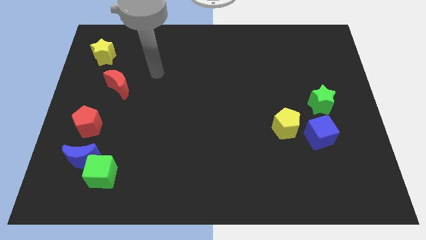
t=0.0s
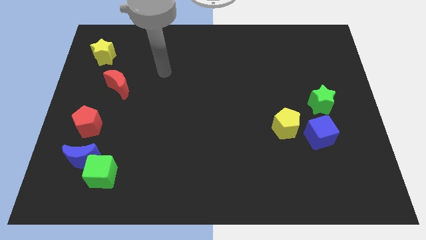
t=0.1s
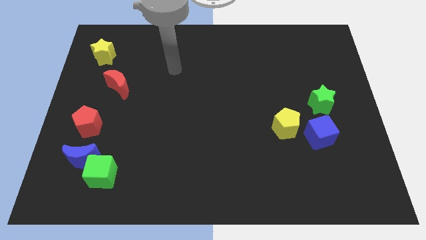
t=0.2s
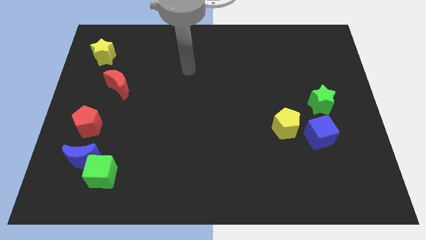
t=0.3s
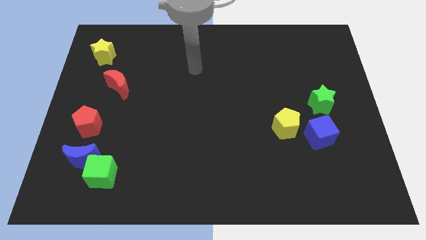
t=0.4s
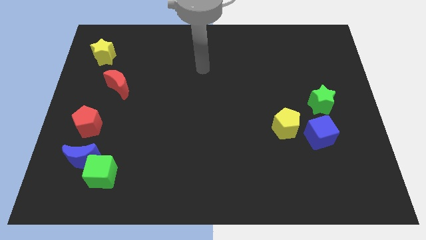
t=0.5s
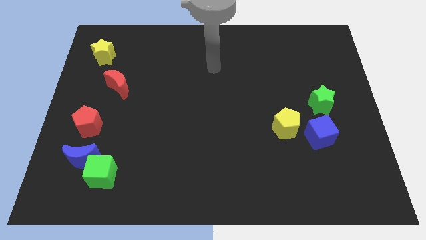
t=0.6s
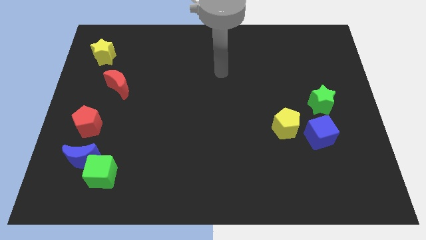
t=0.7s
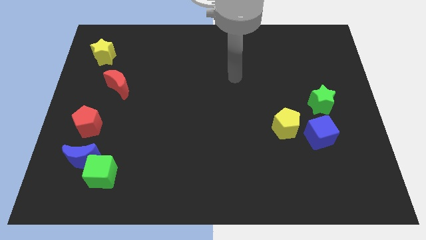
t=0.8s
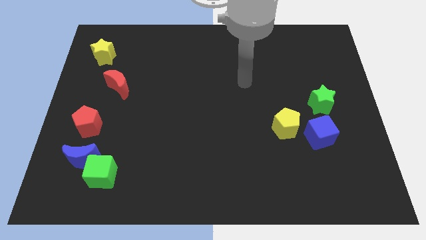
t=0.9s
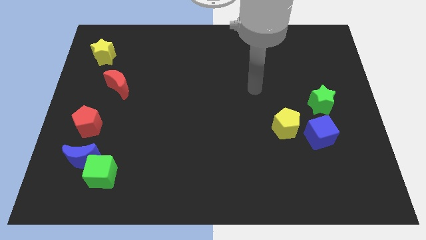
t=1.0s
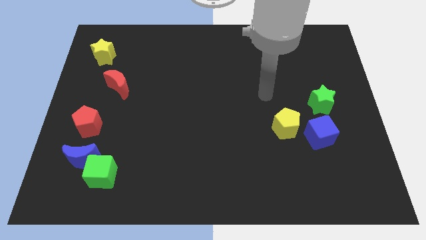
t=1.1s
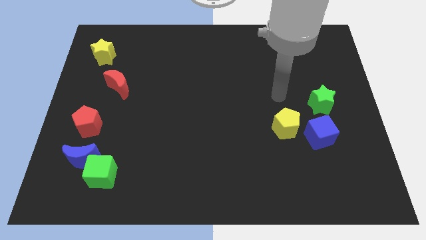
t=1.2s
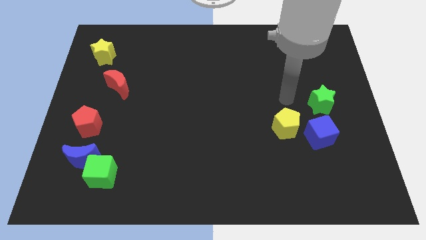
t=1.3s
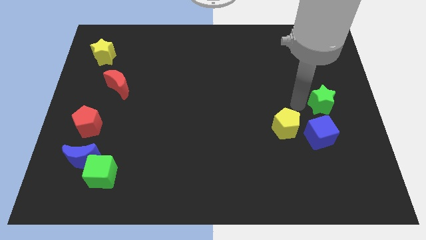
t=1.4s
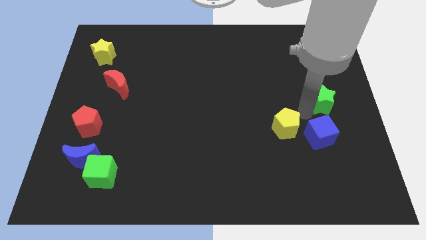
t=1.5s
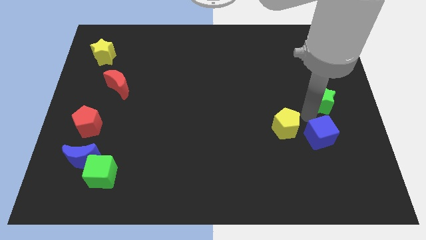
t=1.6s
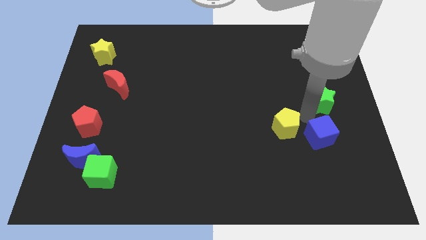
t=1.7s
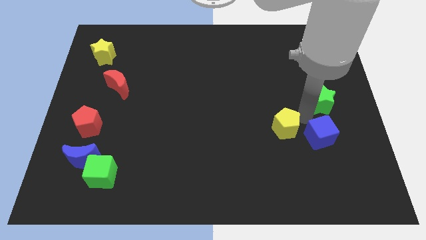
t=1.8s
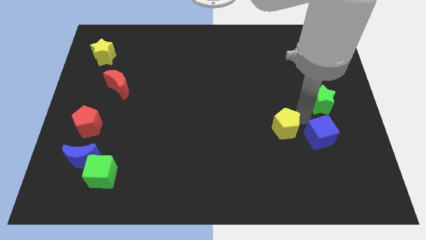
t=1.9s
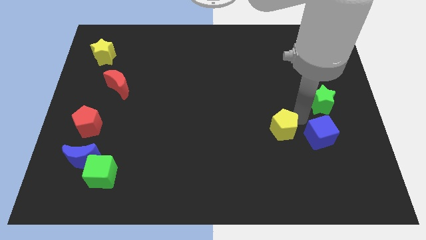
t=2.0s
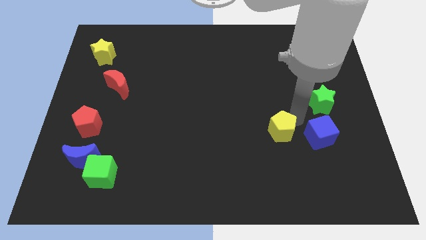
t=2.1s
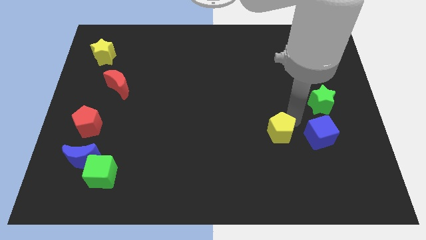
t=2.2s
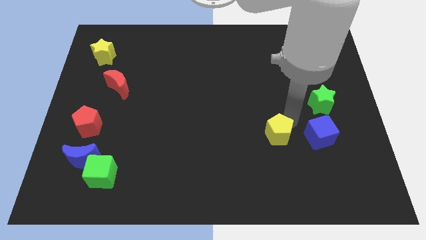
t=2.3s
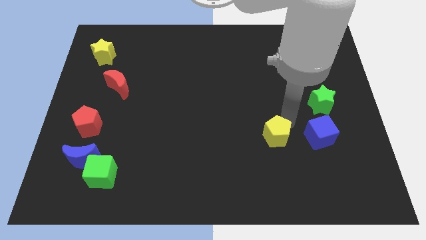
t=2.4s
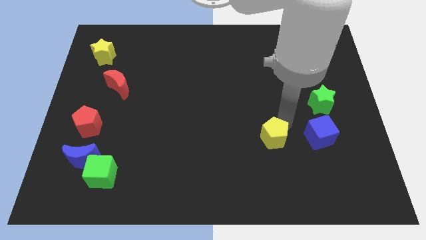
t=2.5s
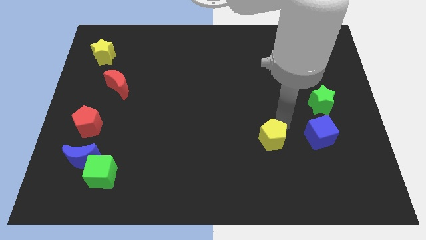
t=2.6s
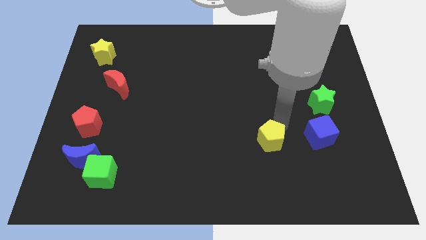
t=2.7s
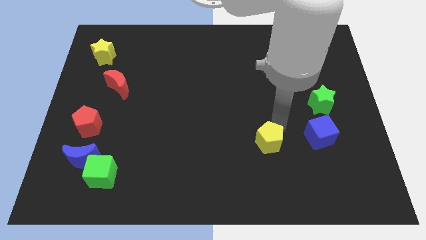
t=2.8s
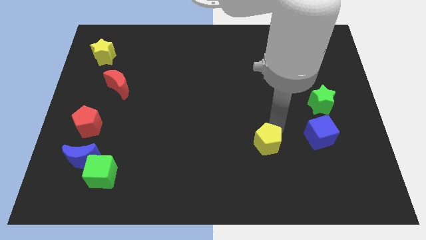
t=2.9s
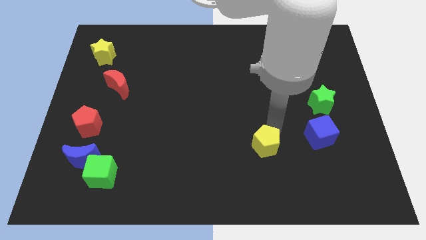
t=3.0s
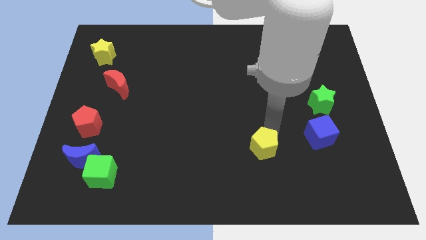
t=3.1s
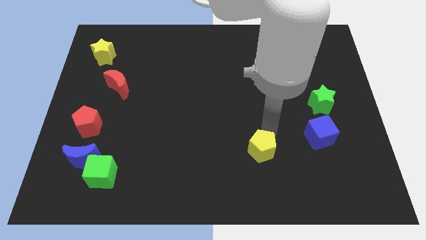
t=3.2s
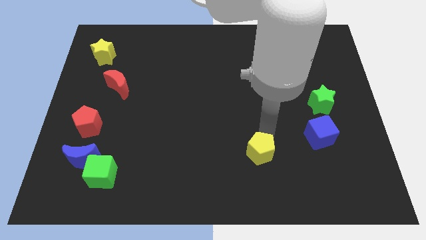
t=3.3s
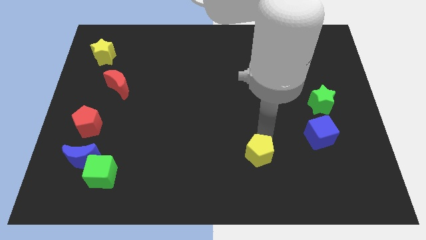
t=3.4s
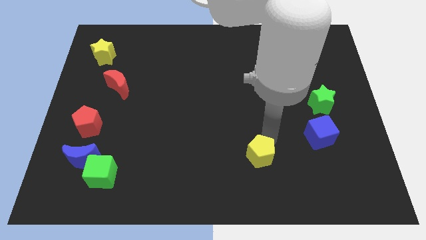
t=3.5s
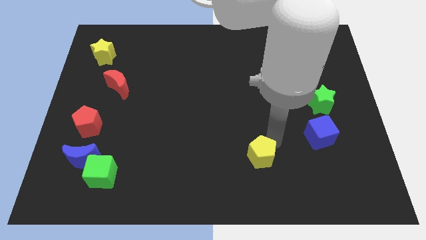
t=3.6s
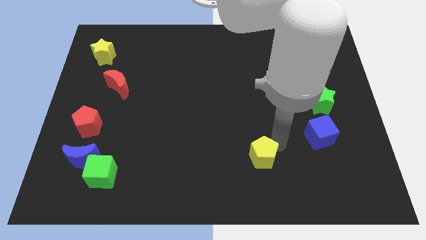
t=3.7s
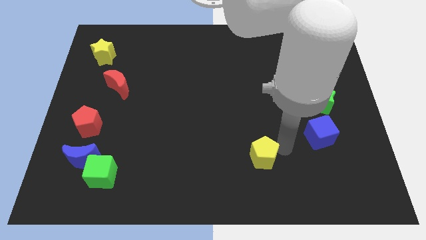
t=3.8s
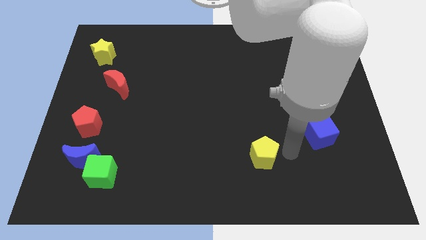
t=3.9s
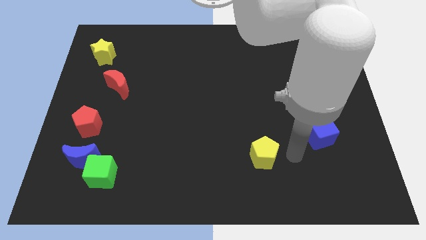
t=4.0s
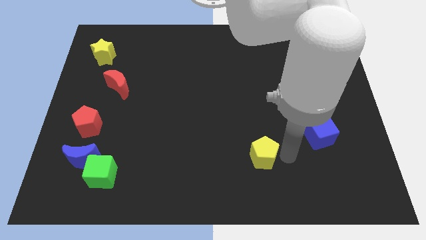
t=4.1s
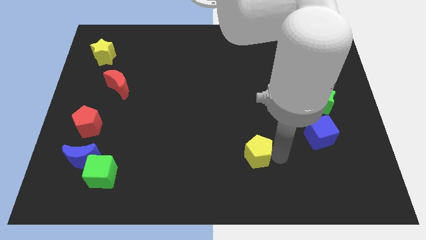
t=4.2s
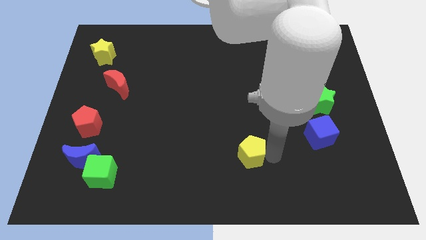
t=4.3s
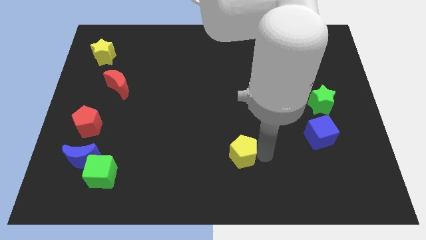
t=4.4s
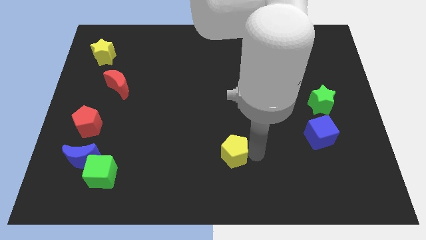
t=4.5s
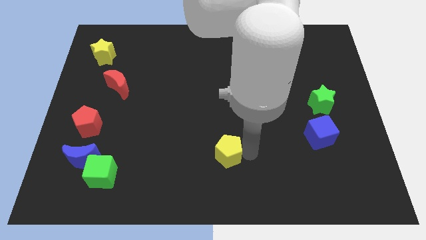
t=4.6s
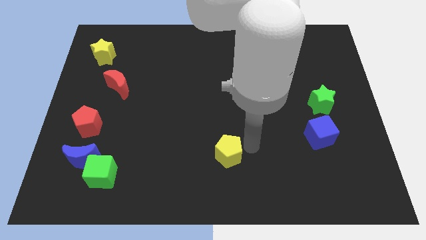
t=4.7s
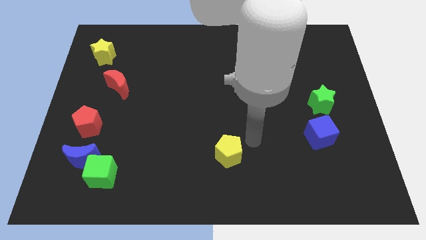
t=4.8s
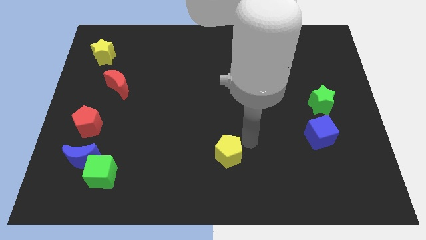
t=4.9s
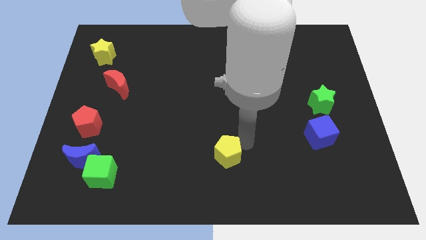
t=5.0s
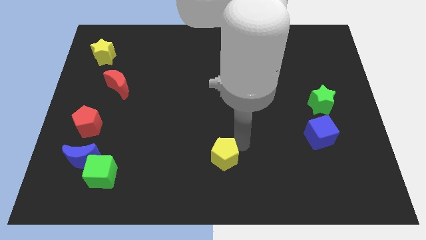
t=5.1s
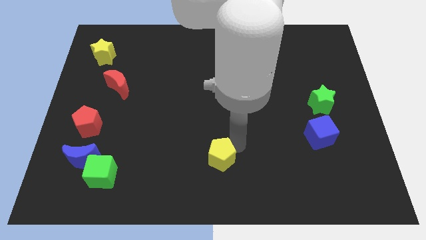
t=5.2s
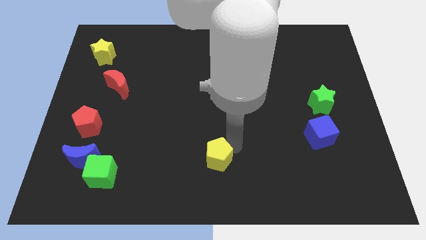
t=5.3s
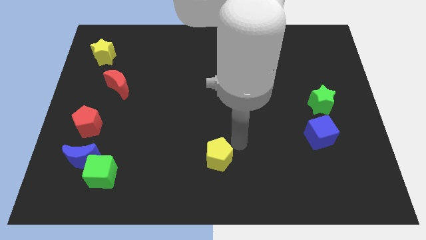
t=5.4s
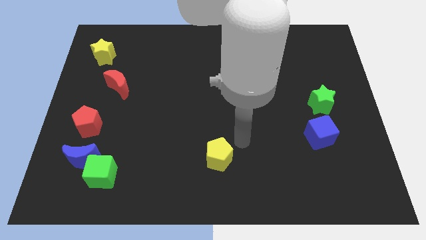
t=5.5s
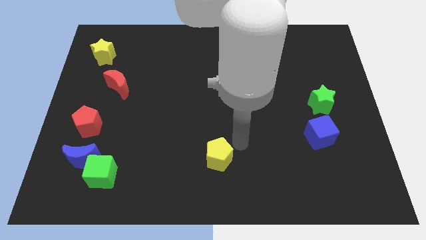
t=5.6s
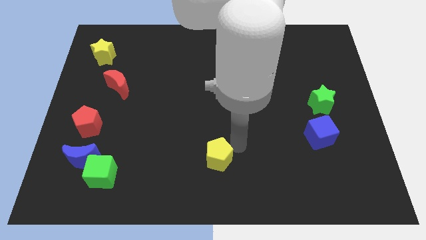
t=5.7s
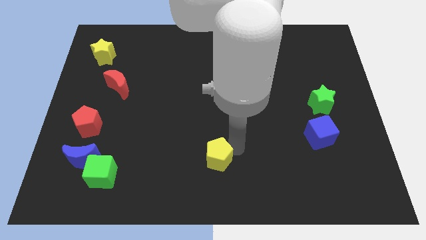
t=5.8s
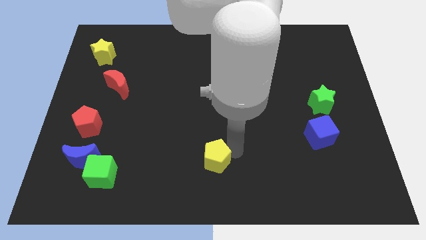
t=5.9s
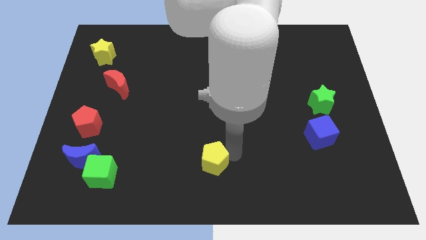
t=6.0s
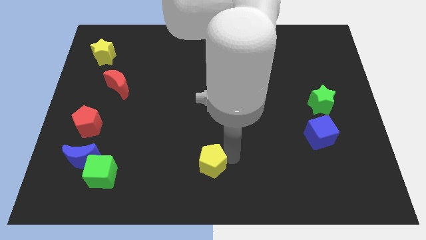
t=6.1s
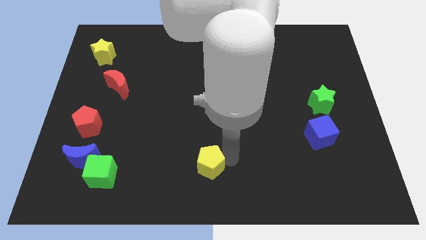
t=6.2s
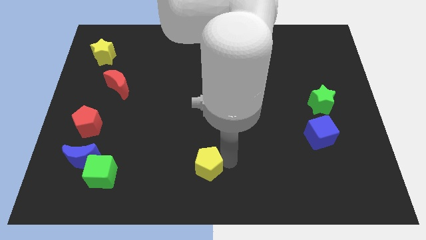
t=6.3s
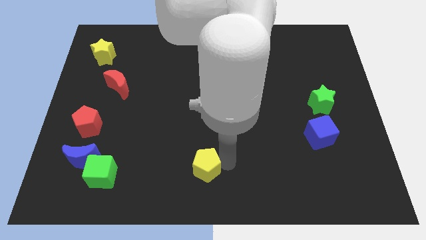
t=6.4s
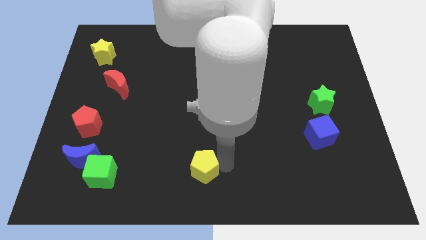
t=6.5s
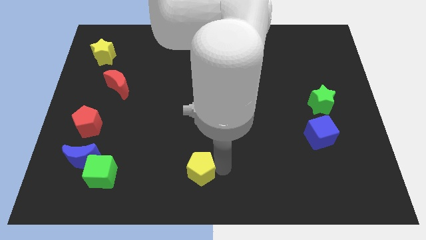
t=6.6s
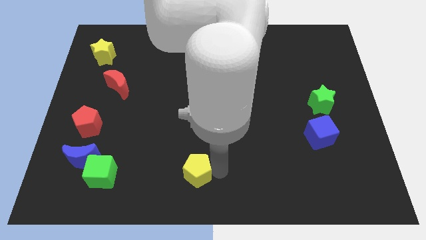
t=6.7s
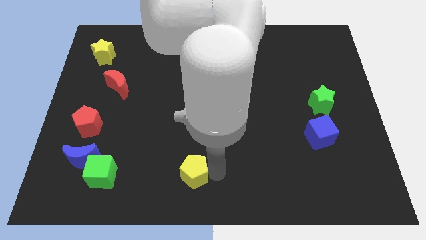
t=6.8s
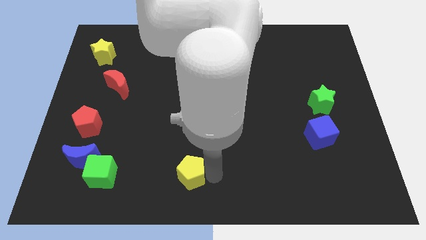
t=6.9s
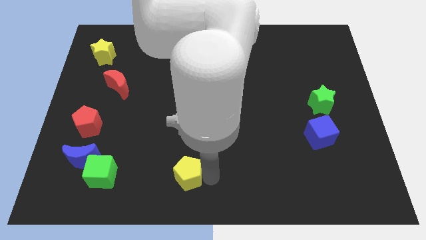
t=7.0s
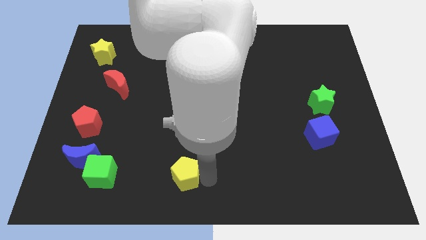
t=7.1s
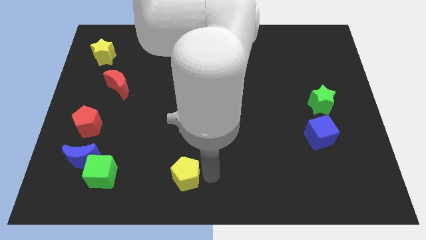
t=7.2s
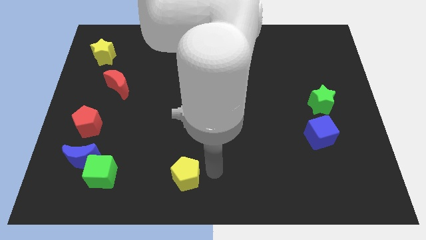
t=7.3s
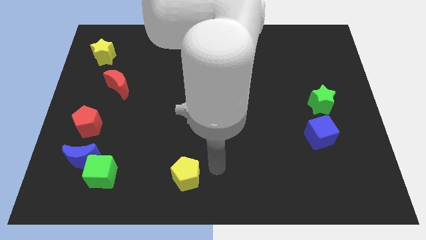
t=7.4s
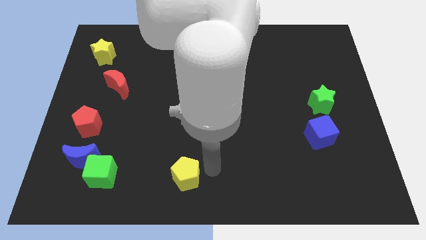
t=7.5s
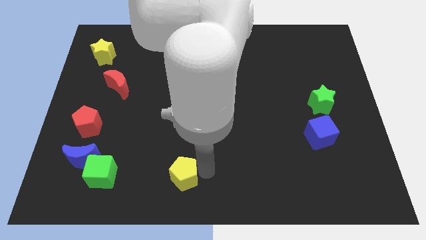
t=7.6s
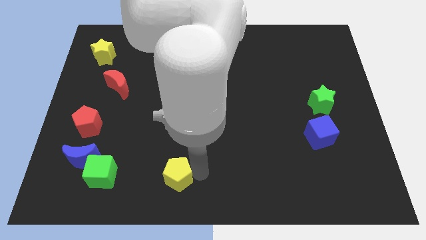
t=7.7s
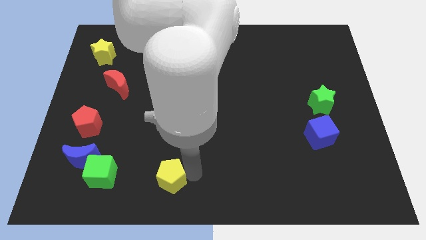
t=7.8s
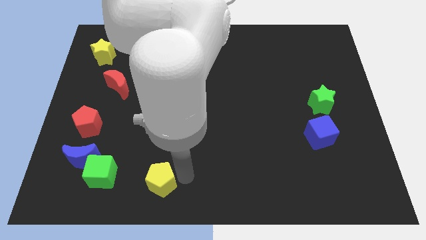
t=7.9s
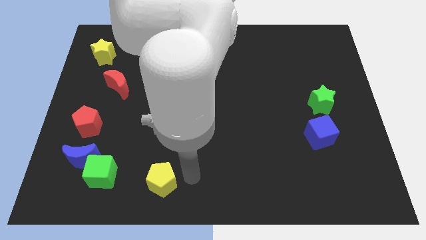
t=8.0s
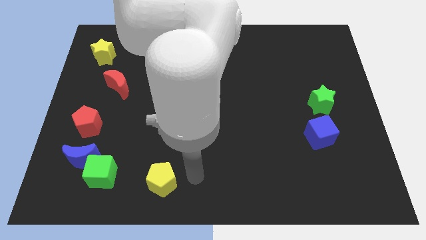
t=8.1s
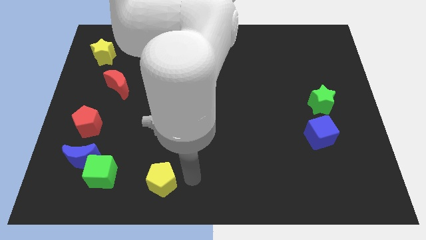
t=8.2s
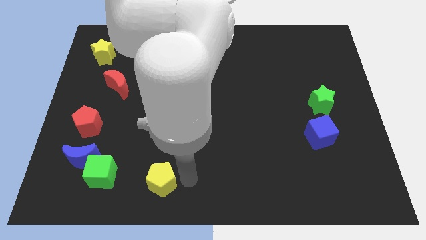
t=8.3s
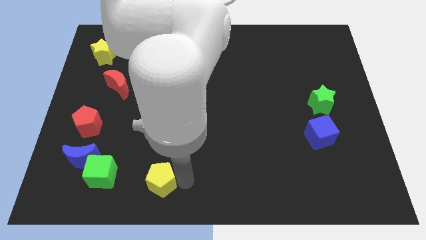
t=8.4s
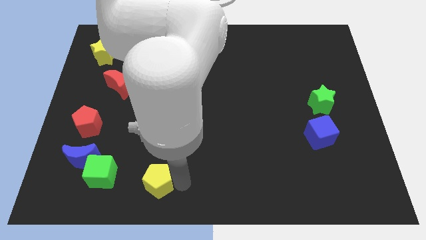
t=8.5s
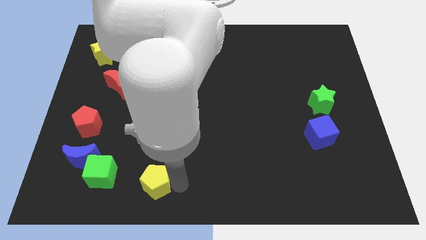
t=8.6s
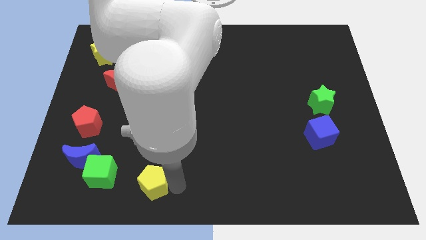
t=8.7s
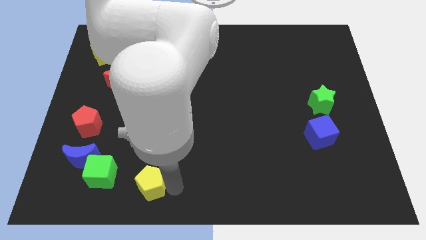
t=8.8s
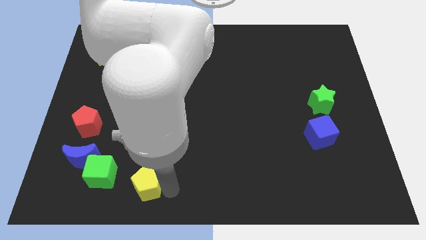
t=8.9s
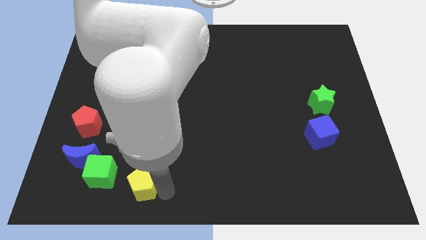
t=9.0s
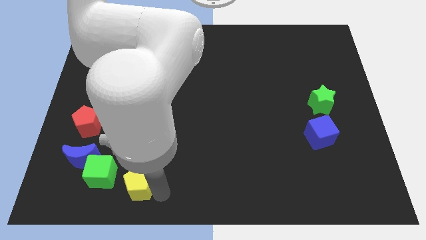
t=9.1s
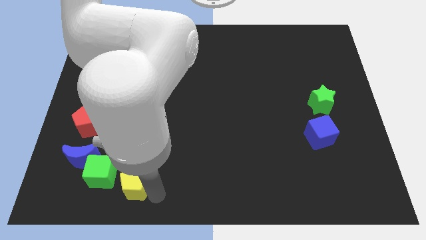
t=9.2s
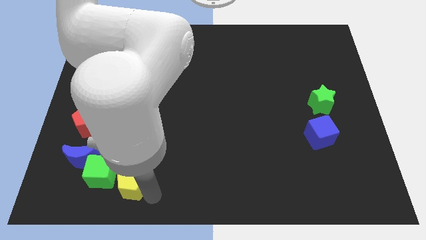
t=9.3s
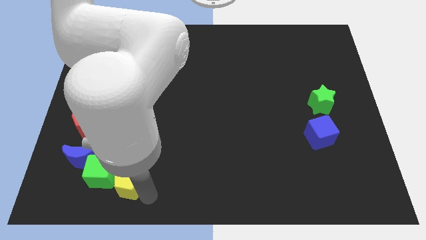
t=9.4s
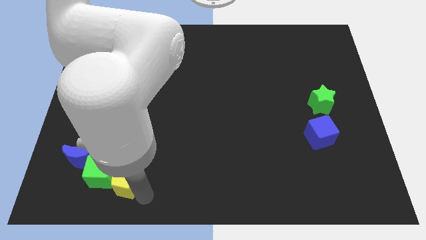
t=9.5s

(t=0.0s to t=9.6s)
push the yellow pentagon to the bottom right of the blue moon
